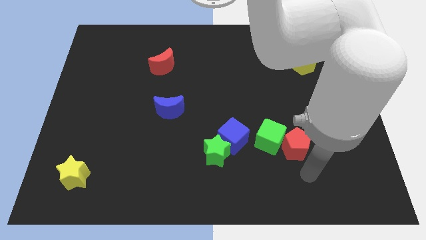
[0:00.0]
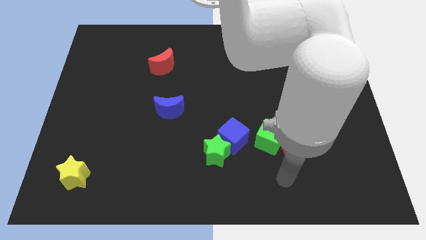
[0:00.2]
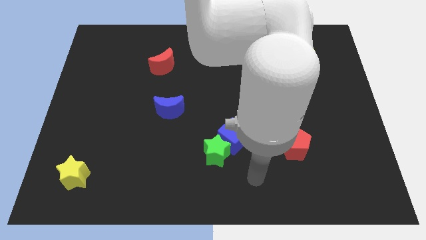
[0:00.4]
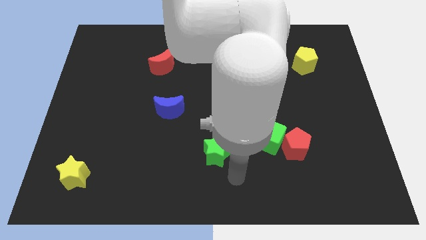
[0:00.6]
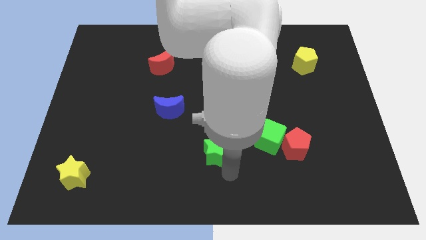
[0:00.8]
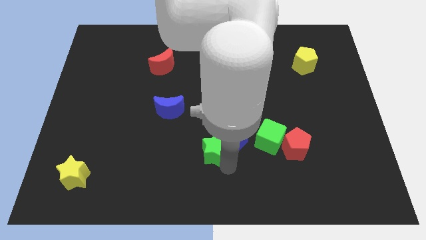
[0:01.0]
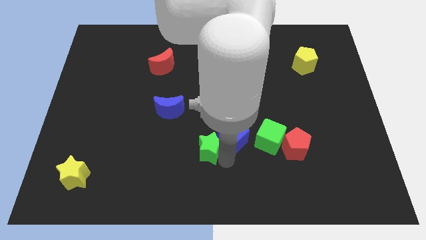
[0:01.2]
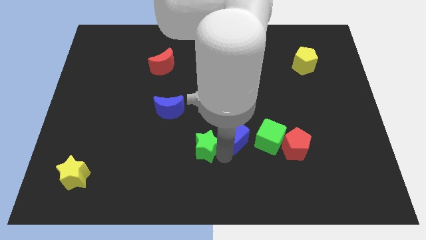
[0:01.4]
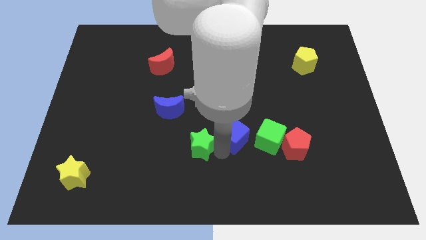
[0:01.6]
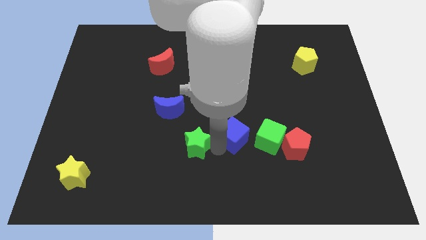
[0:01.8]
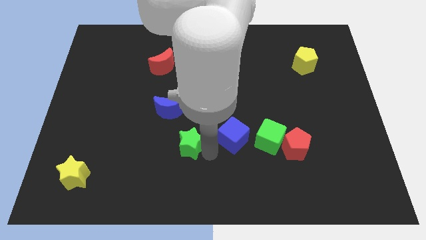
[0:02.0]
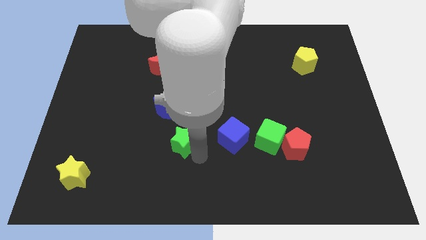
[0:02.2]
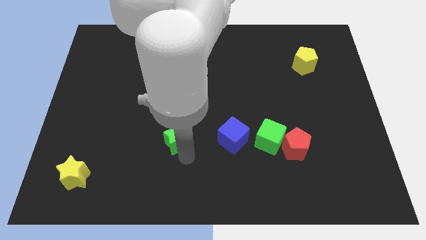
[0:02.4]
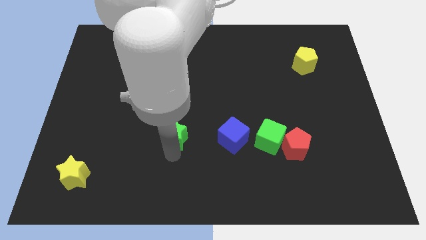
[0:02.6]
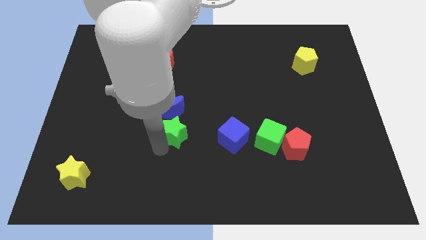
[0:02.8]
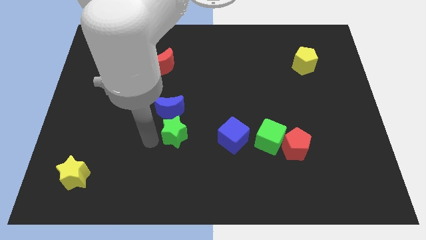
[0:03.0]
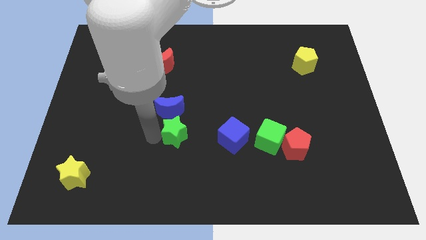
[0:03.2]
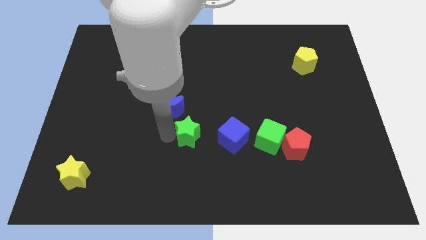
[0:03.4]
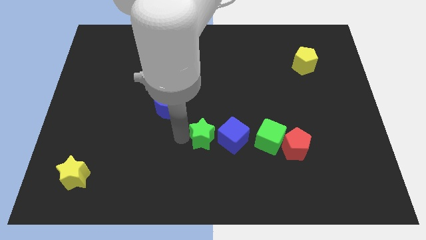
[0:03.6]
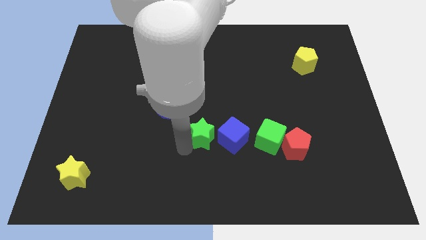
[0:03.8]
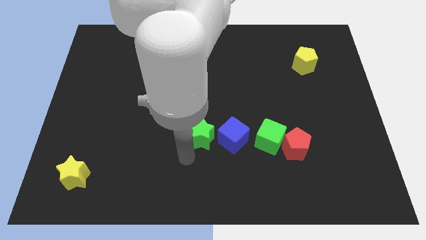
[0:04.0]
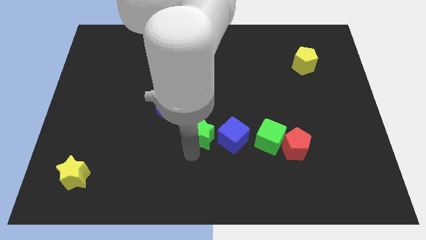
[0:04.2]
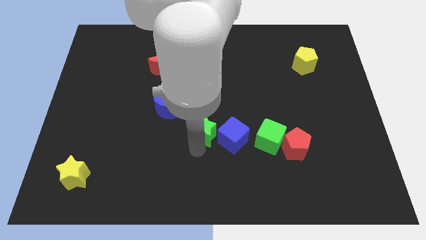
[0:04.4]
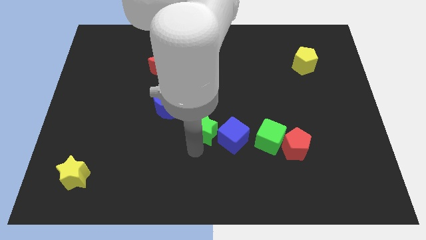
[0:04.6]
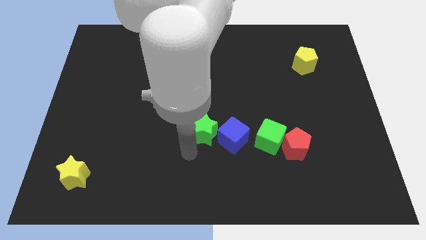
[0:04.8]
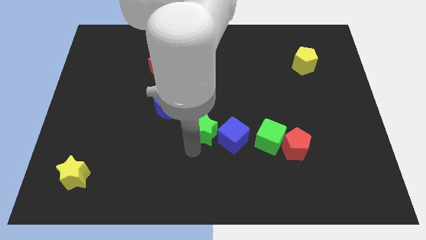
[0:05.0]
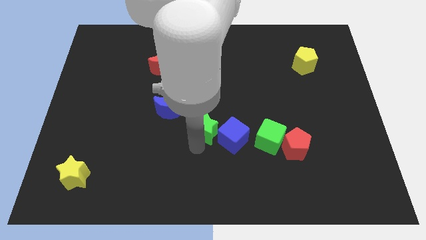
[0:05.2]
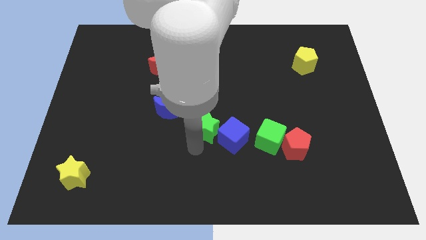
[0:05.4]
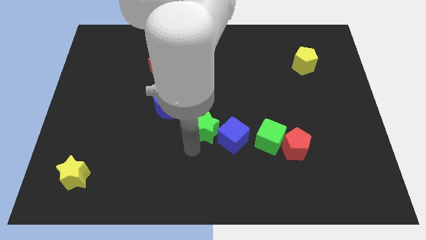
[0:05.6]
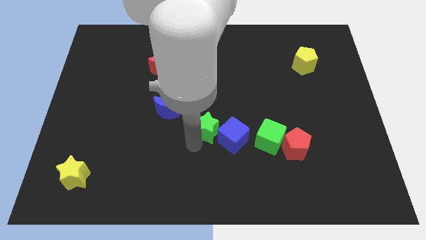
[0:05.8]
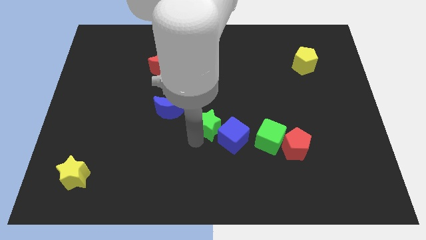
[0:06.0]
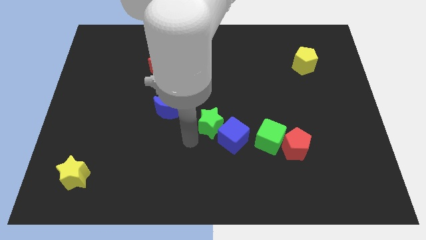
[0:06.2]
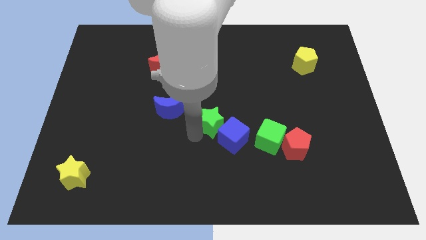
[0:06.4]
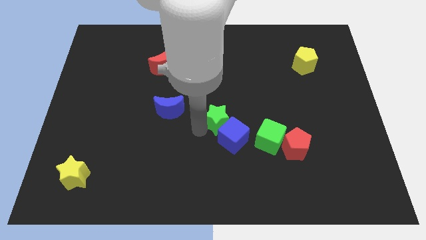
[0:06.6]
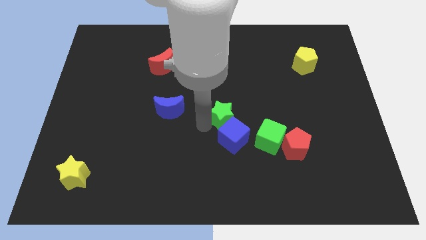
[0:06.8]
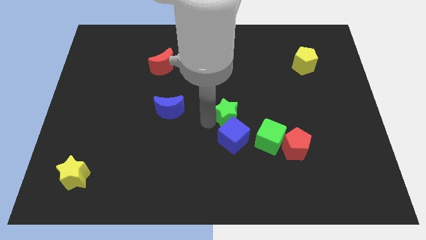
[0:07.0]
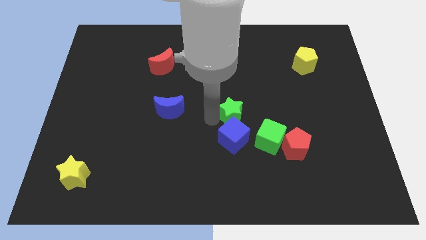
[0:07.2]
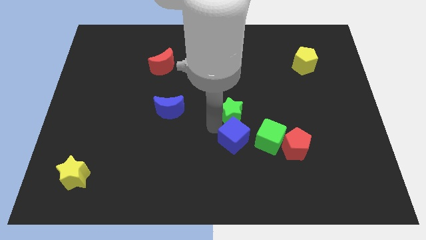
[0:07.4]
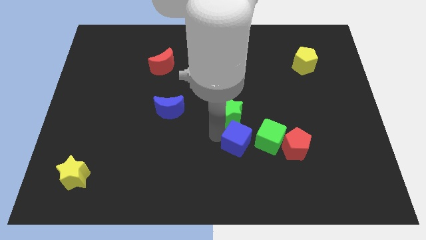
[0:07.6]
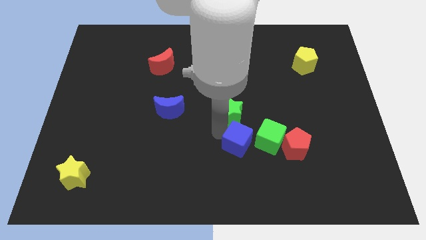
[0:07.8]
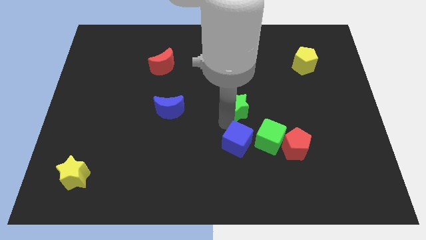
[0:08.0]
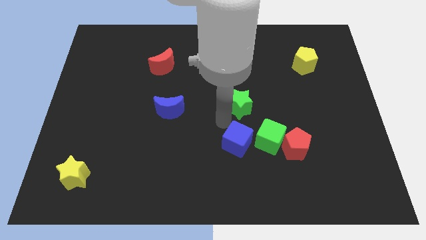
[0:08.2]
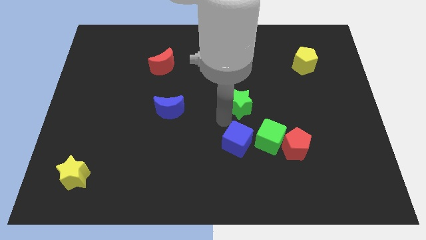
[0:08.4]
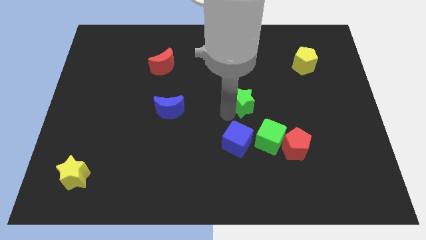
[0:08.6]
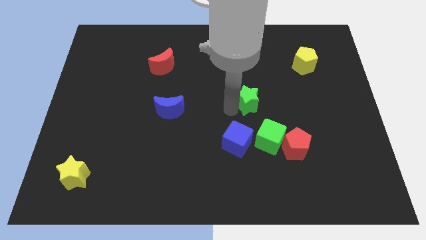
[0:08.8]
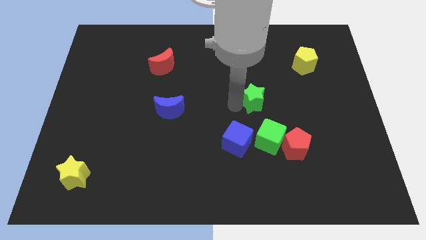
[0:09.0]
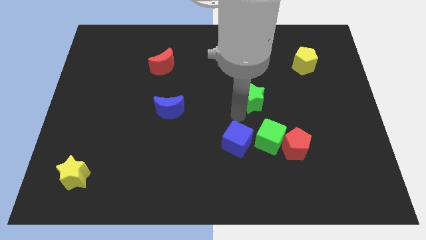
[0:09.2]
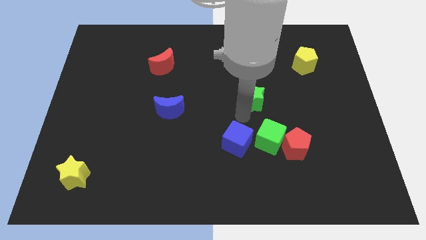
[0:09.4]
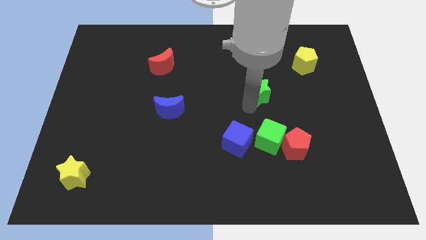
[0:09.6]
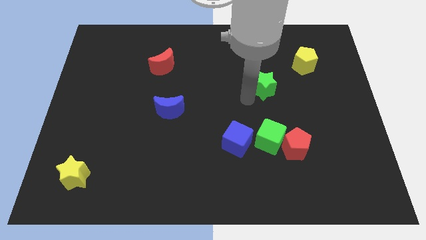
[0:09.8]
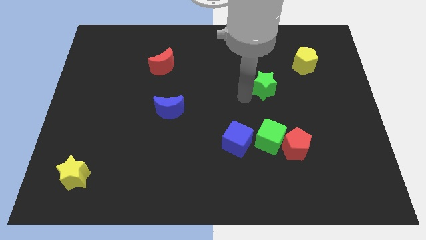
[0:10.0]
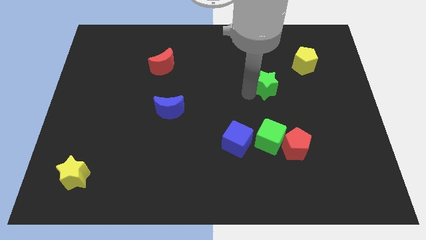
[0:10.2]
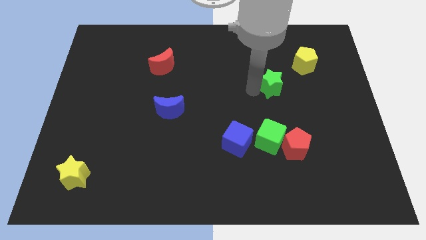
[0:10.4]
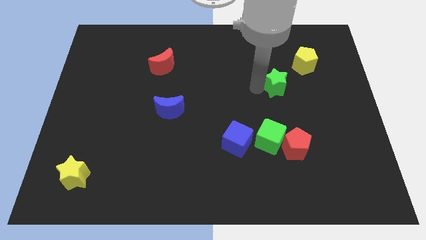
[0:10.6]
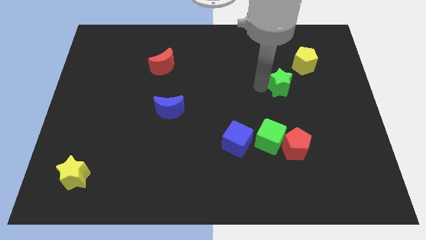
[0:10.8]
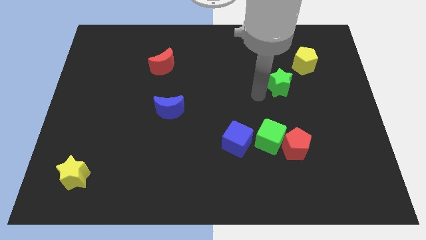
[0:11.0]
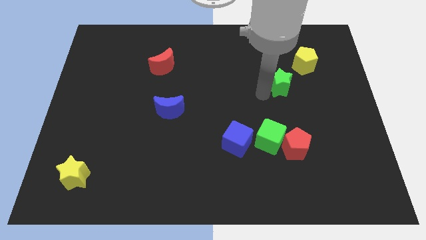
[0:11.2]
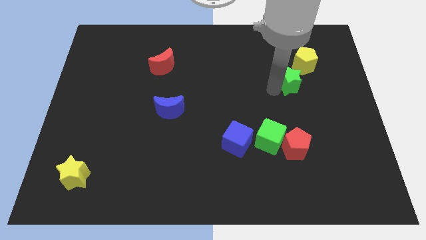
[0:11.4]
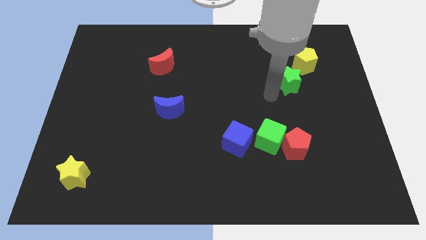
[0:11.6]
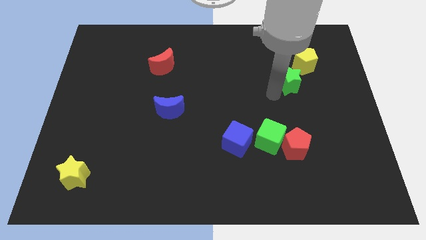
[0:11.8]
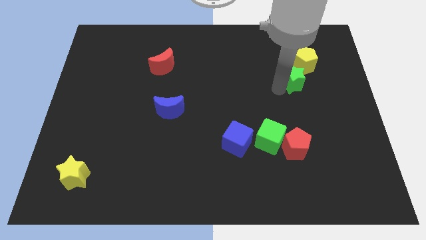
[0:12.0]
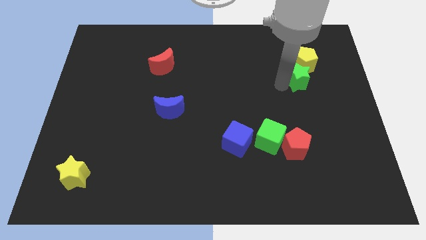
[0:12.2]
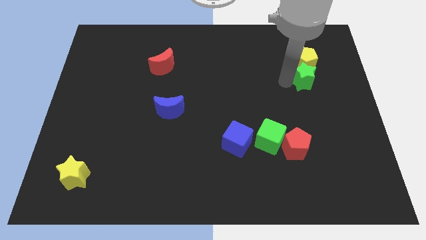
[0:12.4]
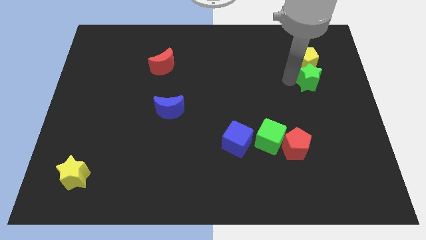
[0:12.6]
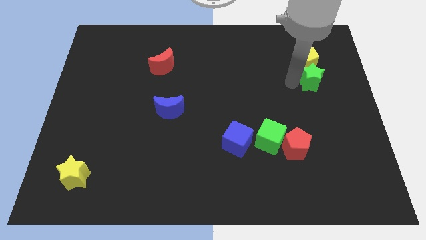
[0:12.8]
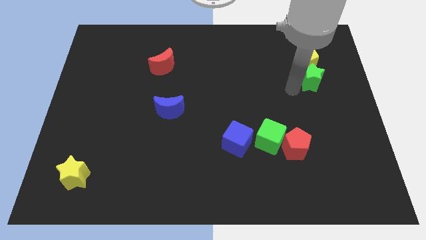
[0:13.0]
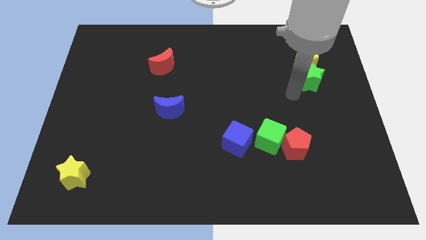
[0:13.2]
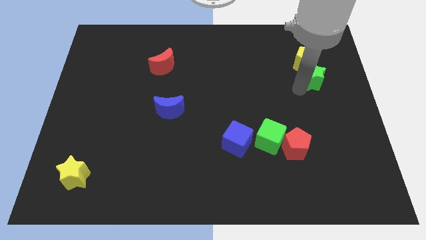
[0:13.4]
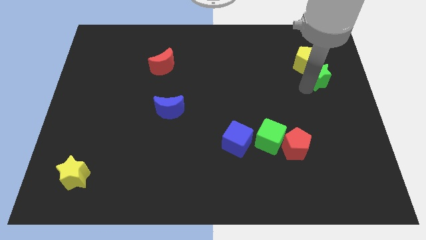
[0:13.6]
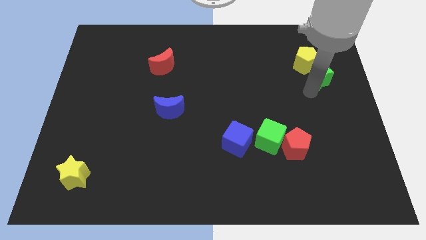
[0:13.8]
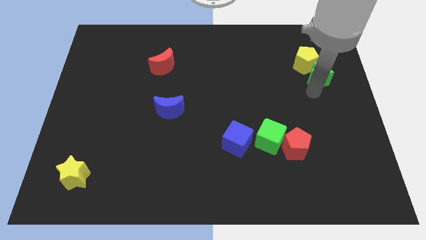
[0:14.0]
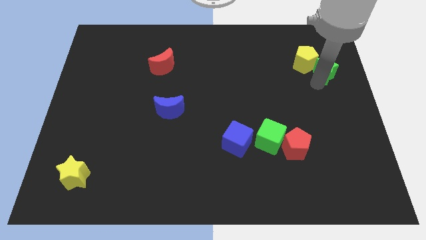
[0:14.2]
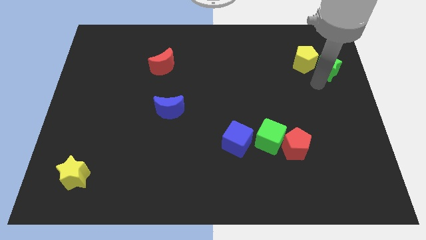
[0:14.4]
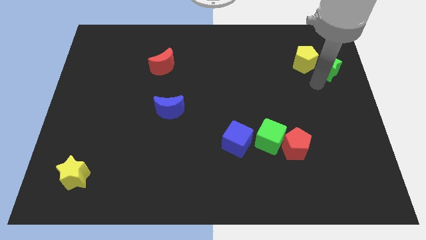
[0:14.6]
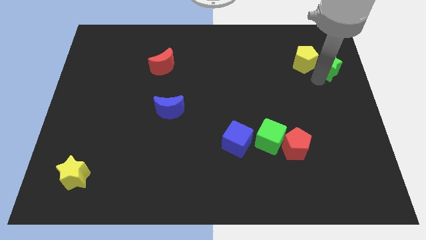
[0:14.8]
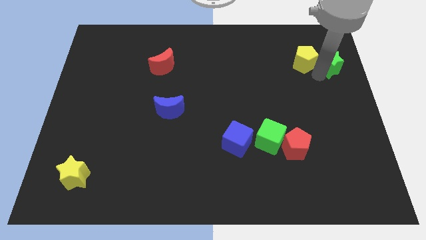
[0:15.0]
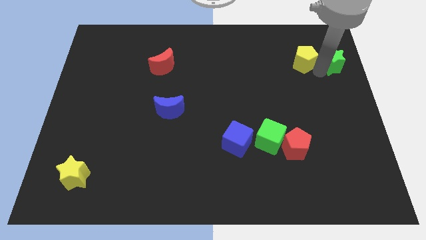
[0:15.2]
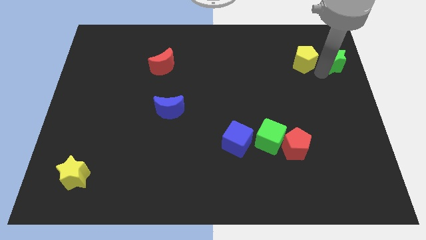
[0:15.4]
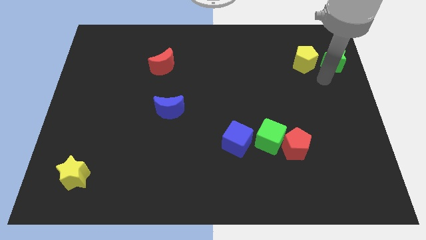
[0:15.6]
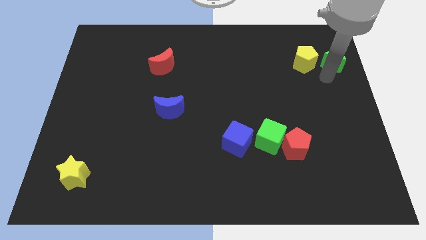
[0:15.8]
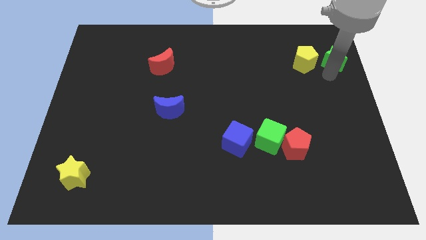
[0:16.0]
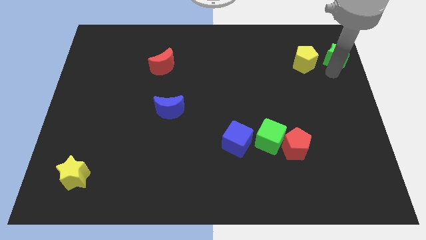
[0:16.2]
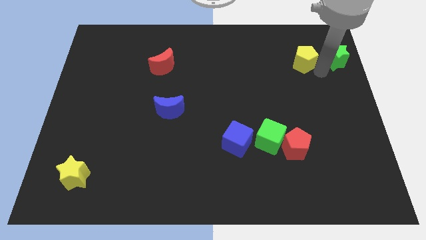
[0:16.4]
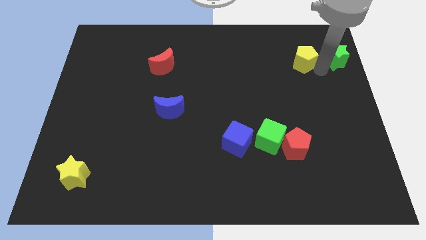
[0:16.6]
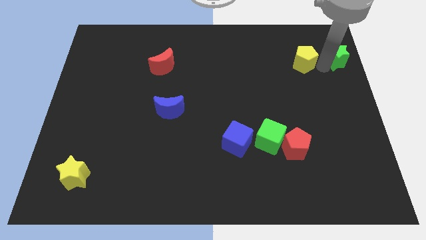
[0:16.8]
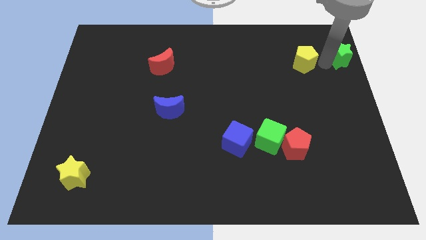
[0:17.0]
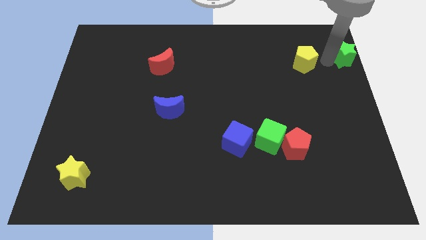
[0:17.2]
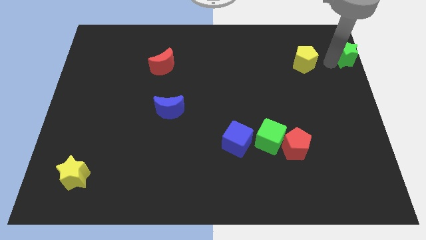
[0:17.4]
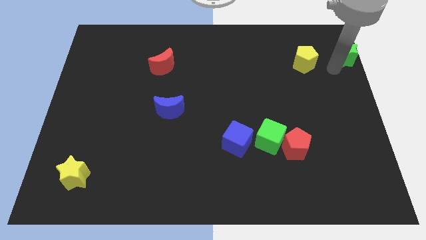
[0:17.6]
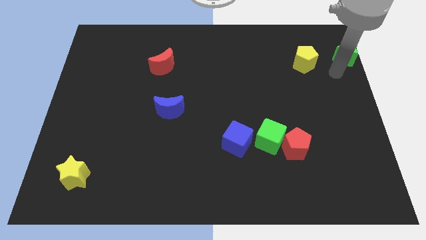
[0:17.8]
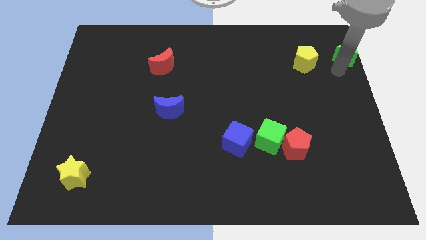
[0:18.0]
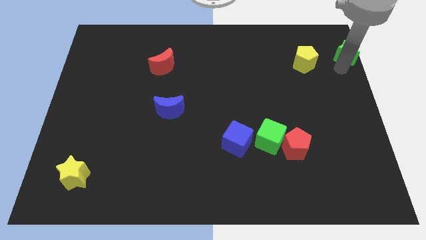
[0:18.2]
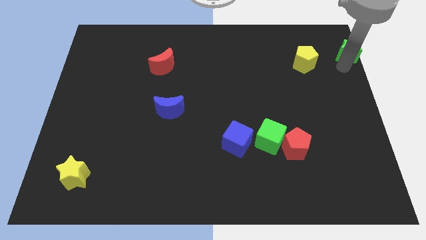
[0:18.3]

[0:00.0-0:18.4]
push the green star to the top right corner
